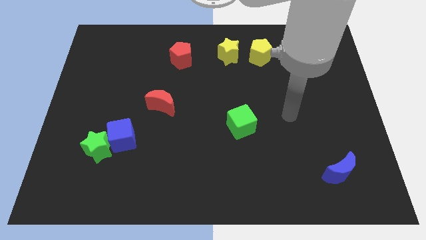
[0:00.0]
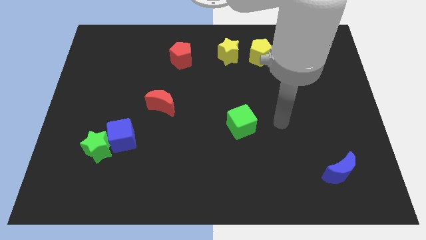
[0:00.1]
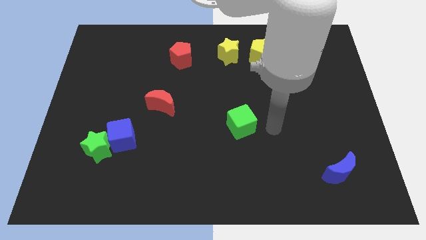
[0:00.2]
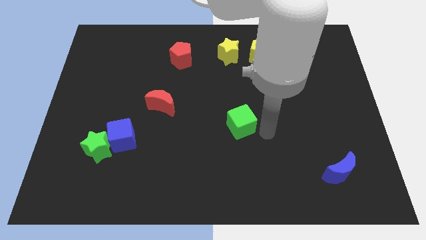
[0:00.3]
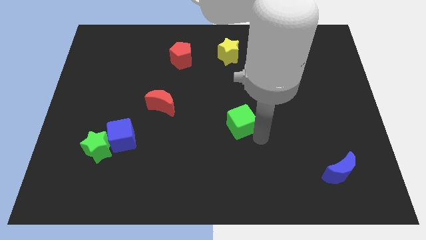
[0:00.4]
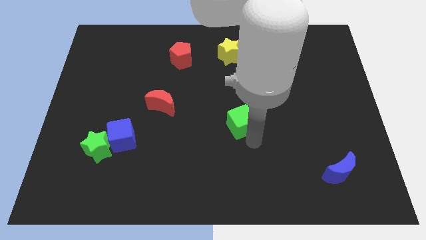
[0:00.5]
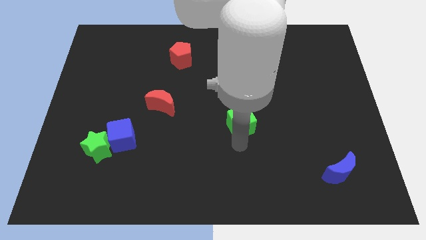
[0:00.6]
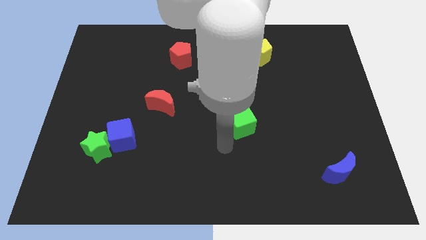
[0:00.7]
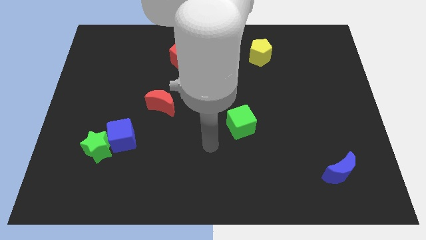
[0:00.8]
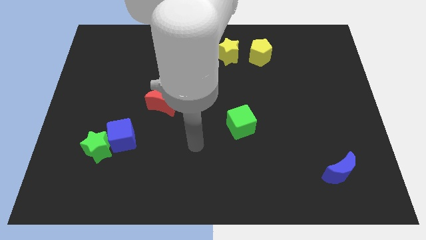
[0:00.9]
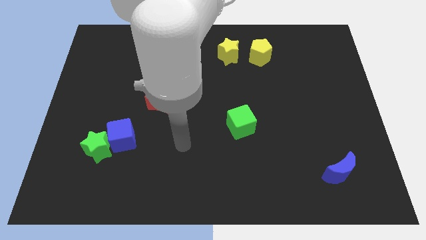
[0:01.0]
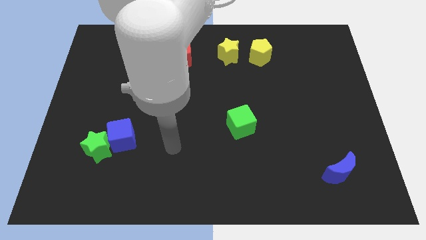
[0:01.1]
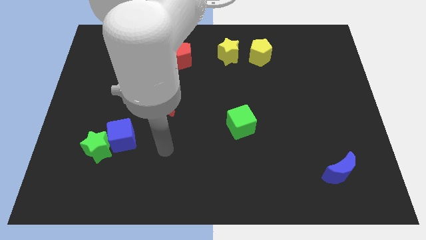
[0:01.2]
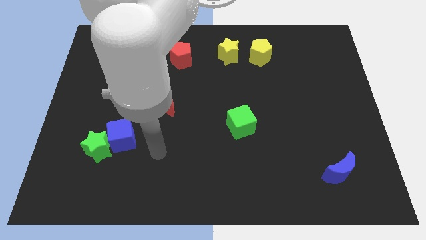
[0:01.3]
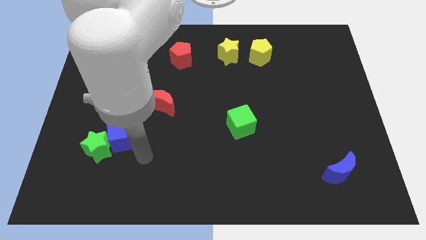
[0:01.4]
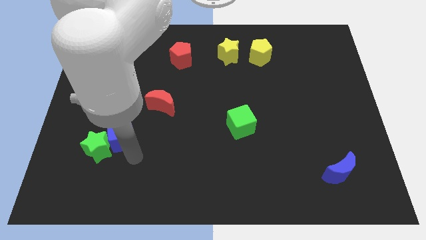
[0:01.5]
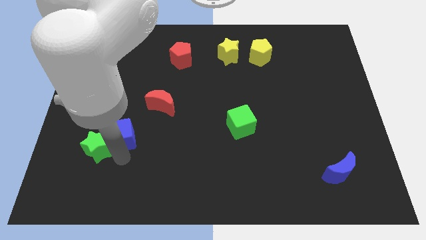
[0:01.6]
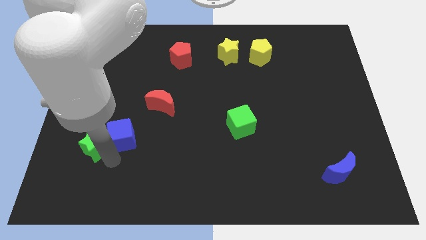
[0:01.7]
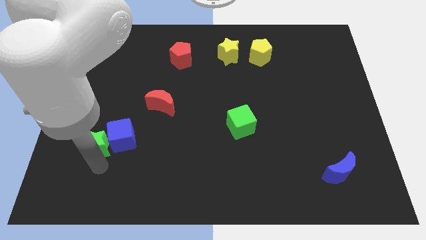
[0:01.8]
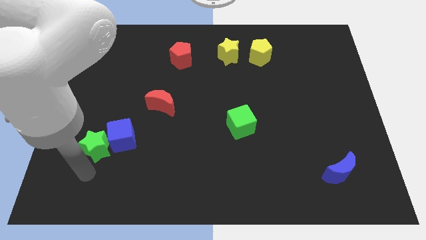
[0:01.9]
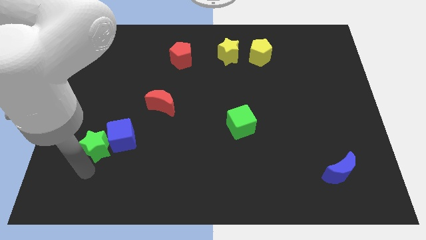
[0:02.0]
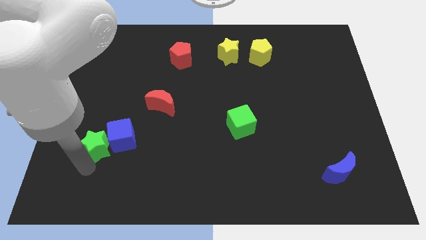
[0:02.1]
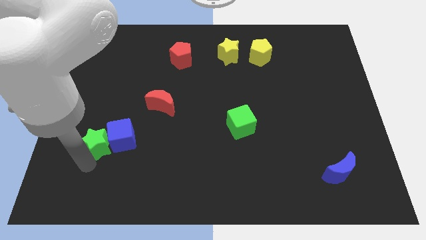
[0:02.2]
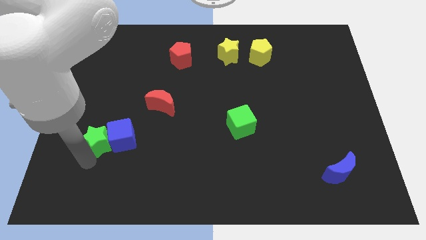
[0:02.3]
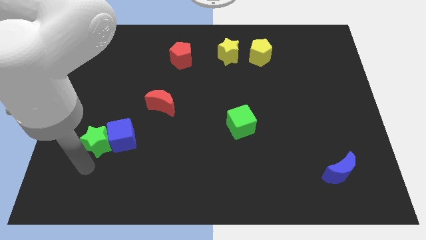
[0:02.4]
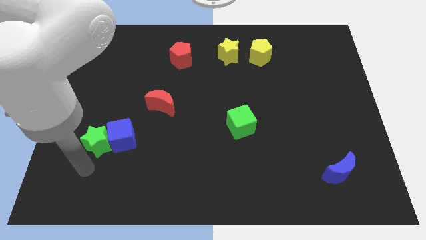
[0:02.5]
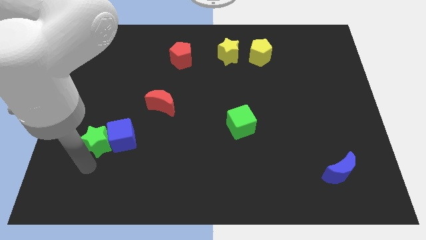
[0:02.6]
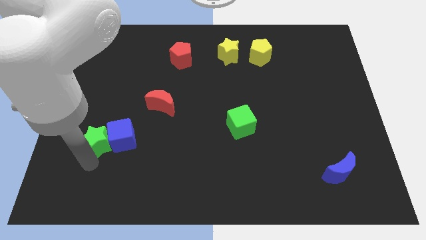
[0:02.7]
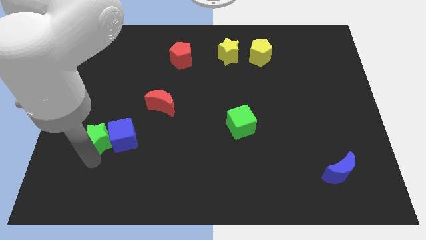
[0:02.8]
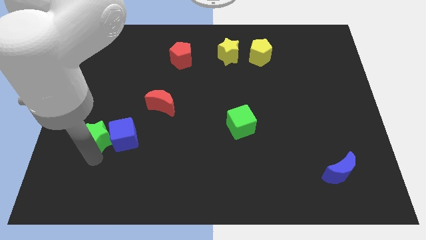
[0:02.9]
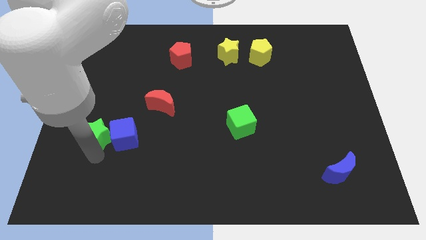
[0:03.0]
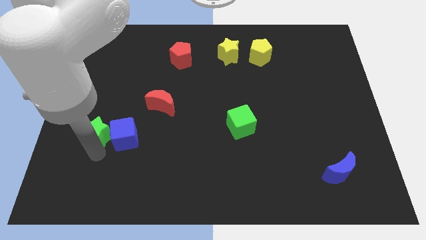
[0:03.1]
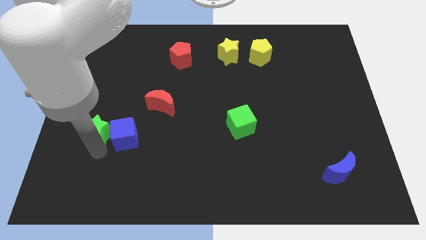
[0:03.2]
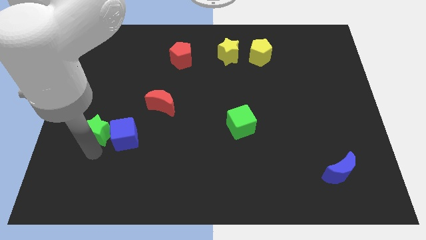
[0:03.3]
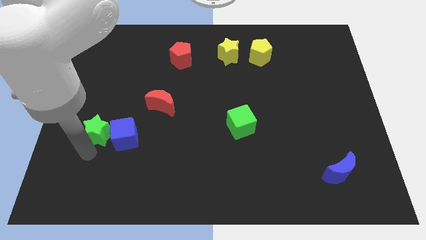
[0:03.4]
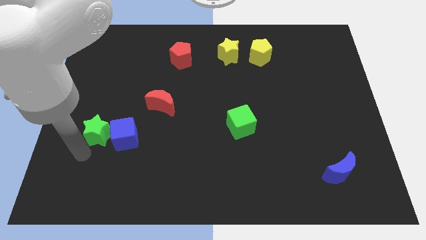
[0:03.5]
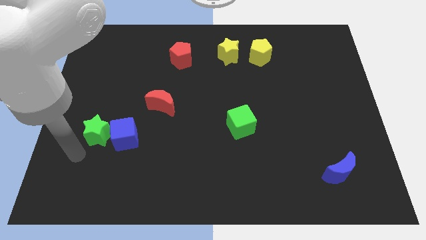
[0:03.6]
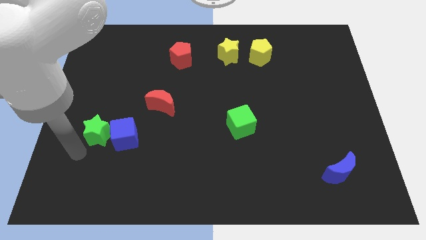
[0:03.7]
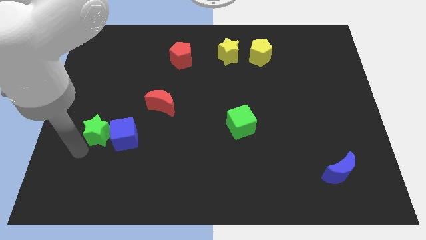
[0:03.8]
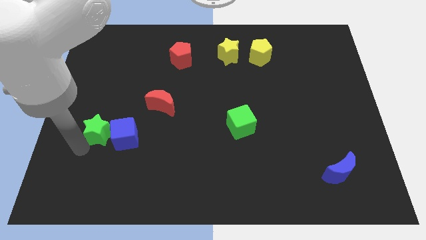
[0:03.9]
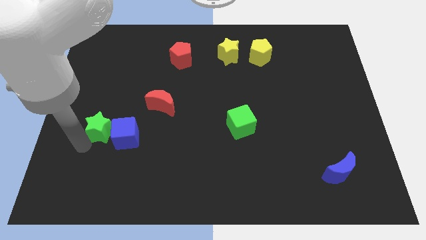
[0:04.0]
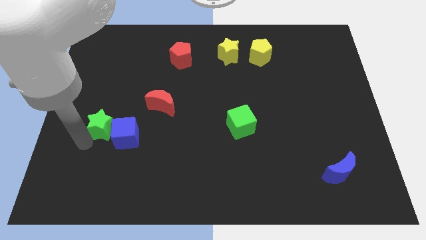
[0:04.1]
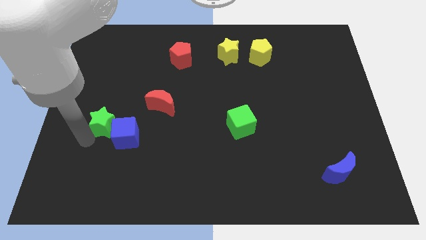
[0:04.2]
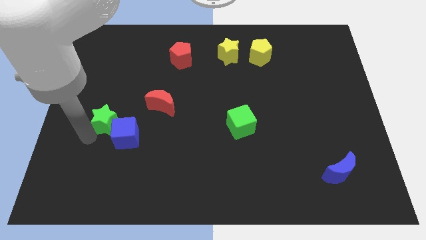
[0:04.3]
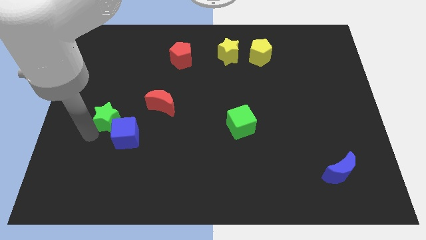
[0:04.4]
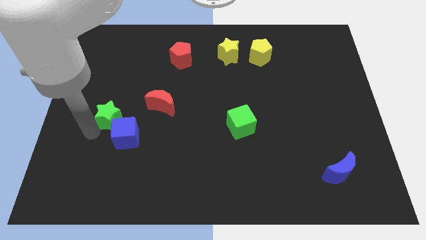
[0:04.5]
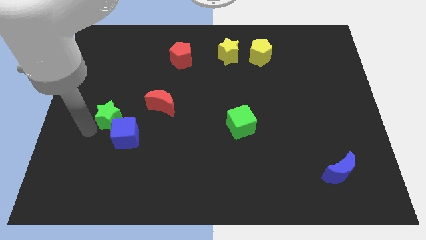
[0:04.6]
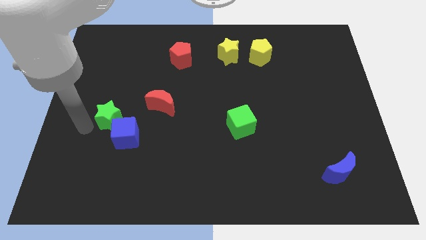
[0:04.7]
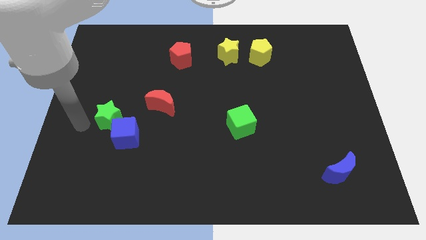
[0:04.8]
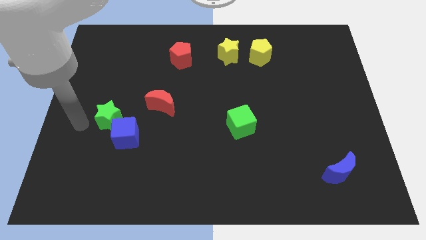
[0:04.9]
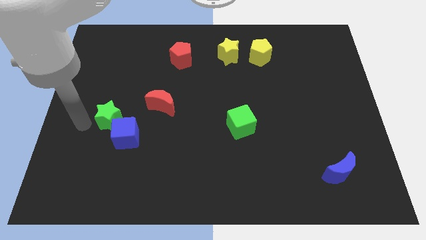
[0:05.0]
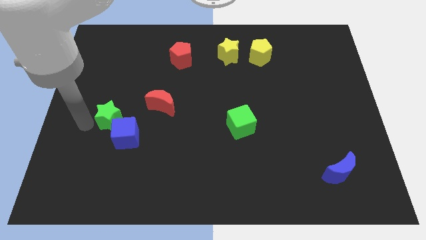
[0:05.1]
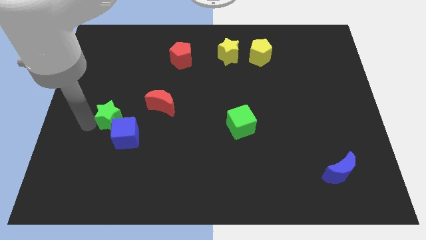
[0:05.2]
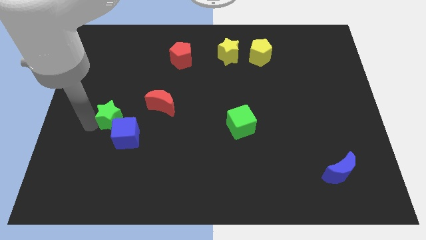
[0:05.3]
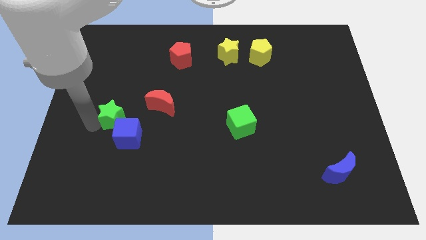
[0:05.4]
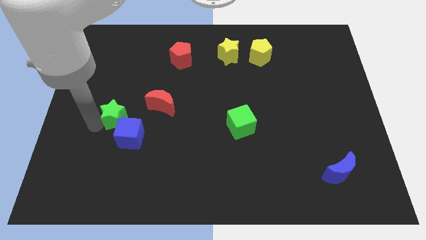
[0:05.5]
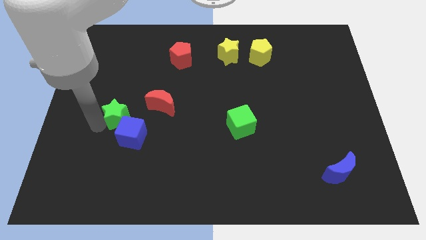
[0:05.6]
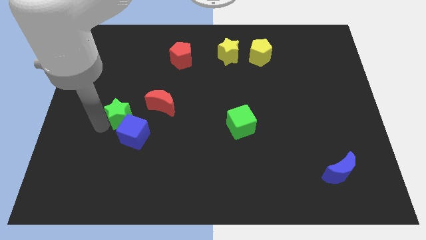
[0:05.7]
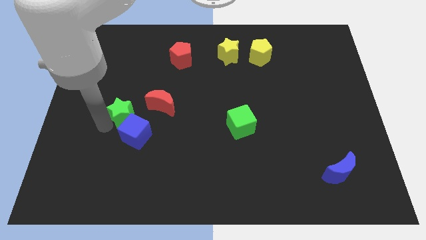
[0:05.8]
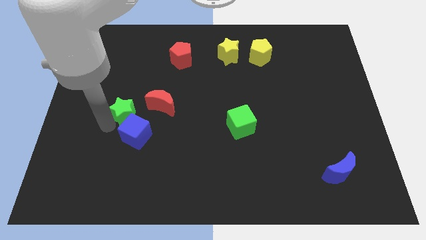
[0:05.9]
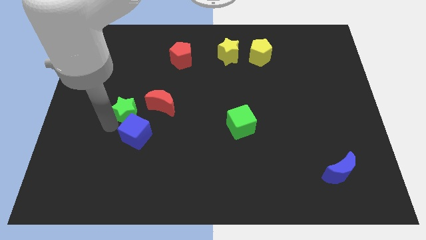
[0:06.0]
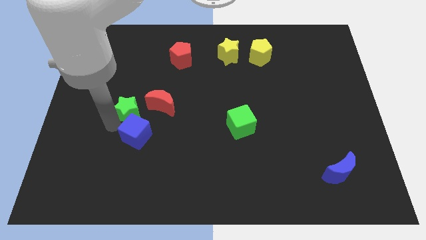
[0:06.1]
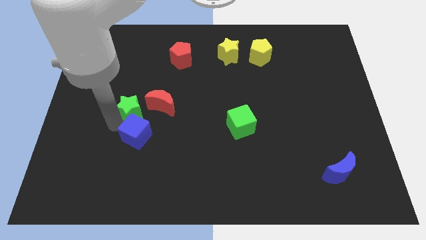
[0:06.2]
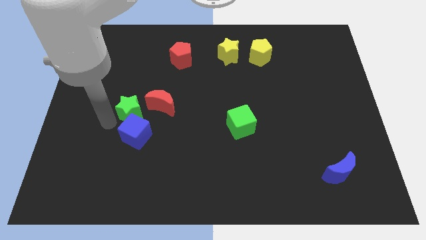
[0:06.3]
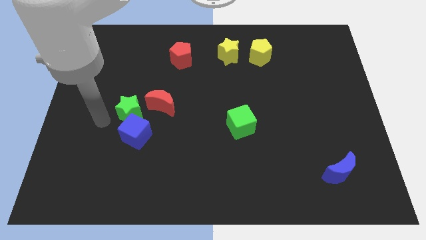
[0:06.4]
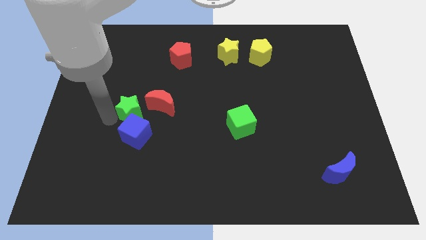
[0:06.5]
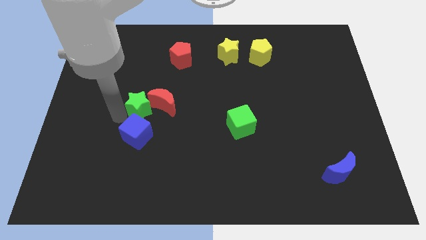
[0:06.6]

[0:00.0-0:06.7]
put the green star towards the red moon

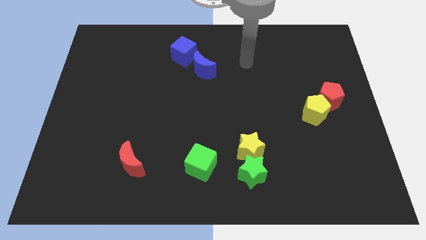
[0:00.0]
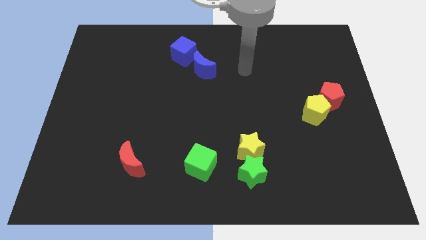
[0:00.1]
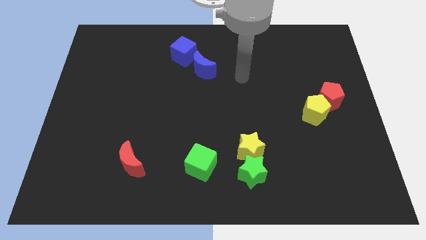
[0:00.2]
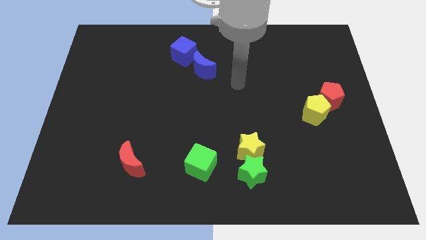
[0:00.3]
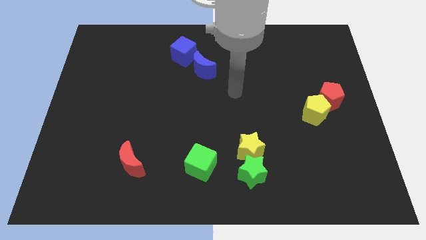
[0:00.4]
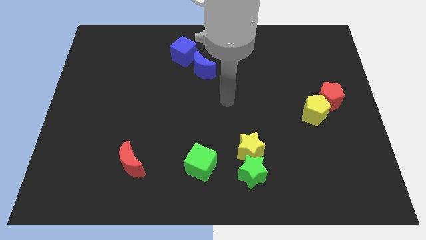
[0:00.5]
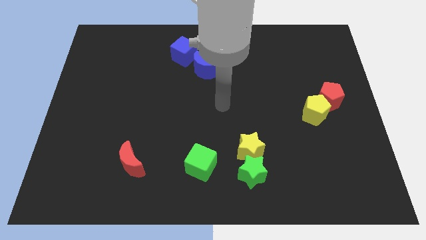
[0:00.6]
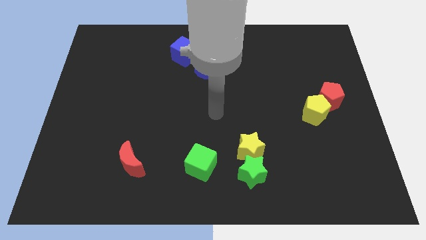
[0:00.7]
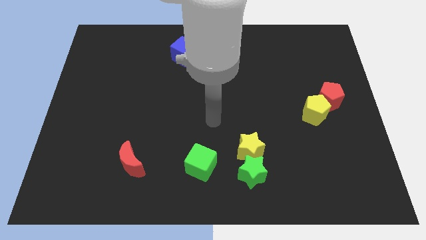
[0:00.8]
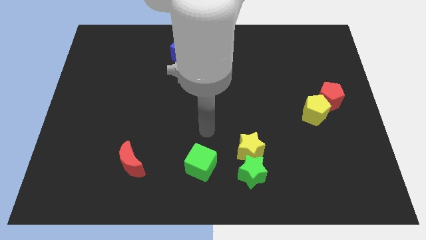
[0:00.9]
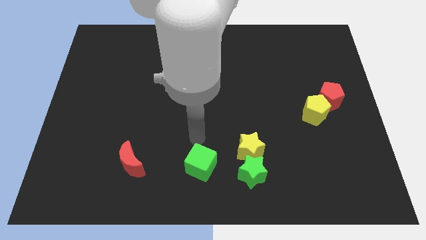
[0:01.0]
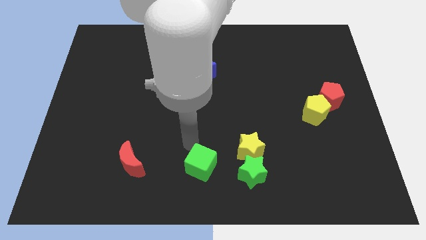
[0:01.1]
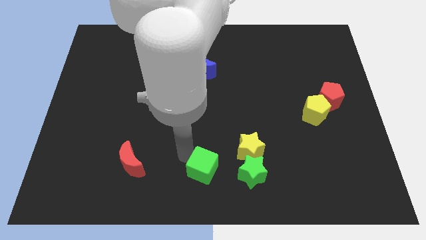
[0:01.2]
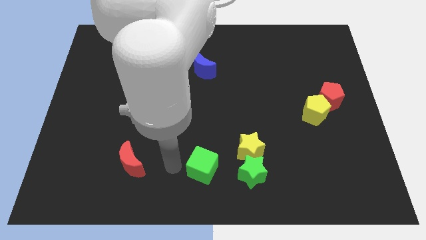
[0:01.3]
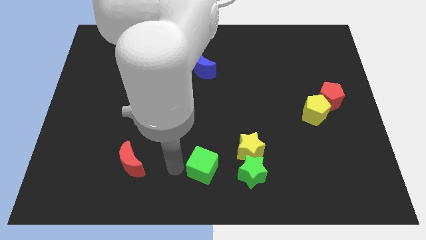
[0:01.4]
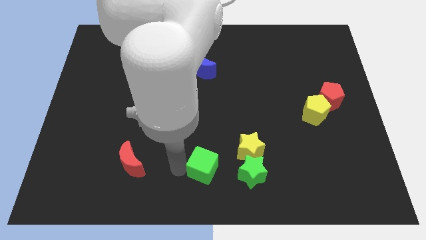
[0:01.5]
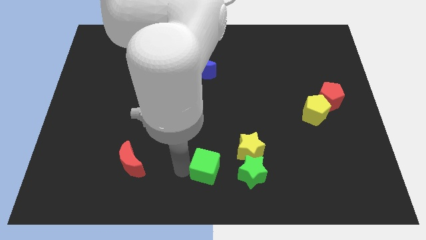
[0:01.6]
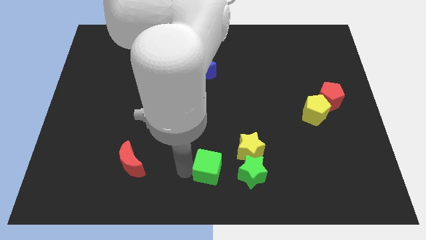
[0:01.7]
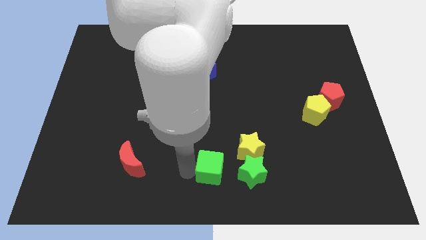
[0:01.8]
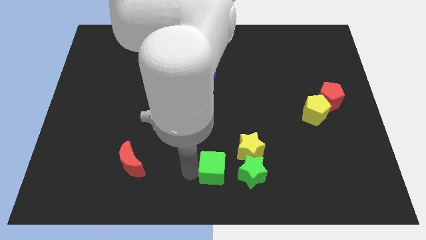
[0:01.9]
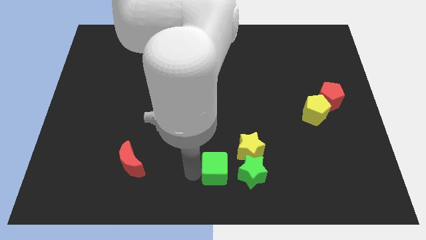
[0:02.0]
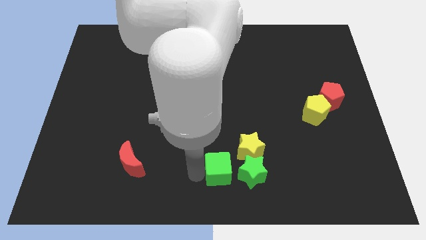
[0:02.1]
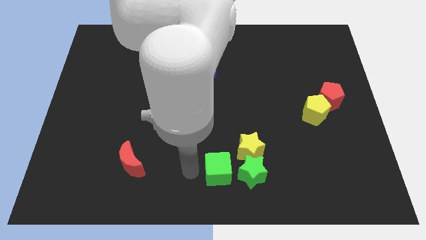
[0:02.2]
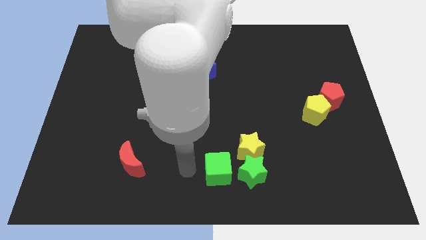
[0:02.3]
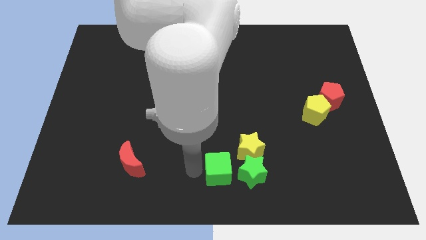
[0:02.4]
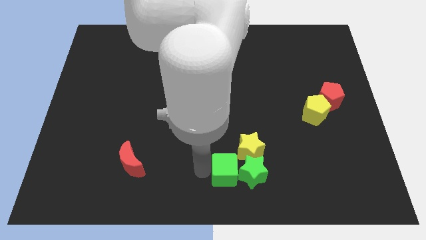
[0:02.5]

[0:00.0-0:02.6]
push the green cube towards the green star
